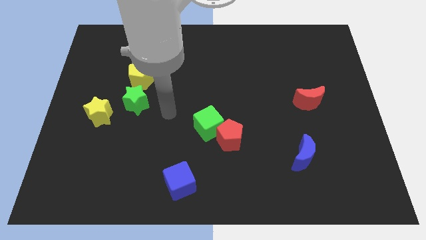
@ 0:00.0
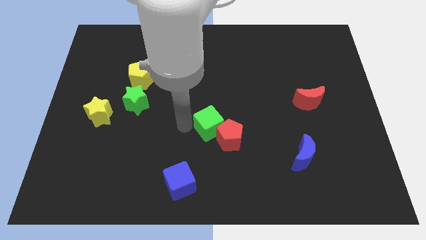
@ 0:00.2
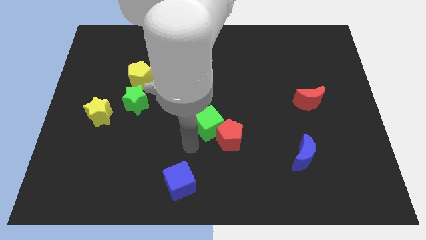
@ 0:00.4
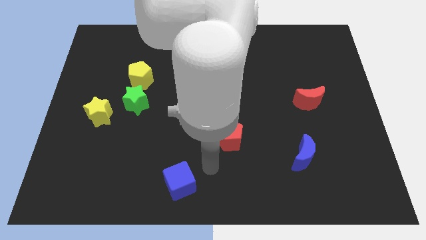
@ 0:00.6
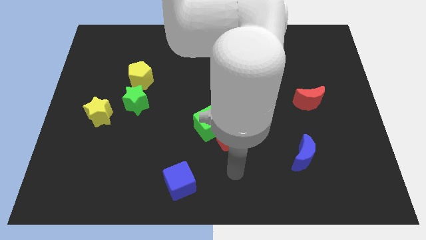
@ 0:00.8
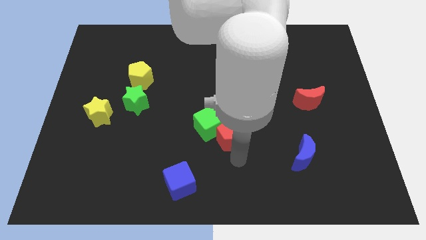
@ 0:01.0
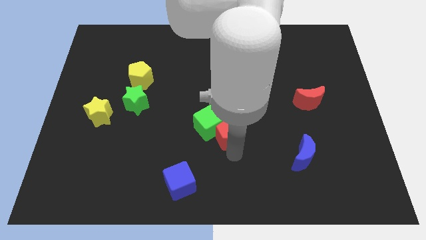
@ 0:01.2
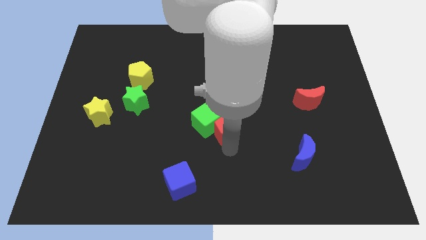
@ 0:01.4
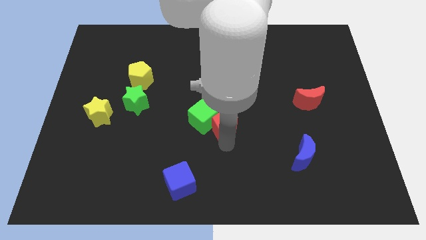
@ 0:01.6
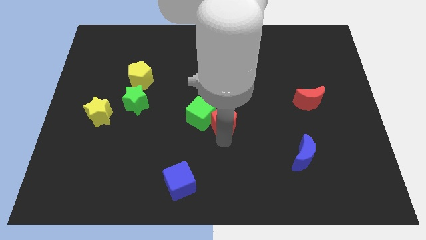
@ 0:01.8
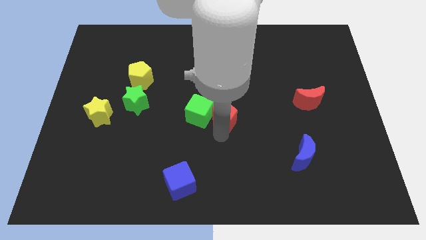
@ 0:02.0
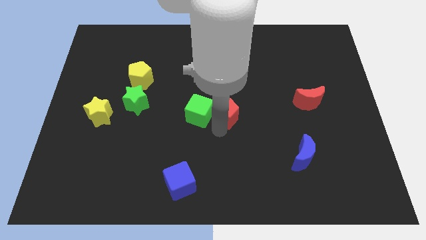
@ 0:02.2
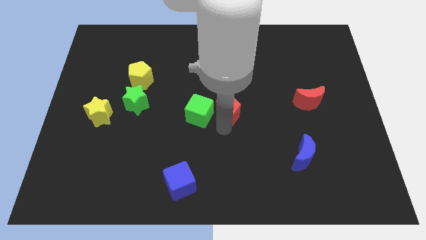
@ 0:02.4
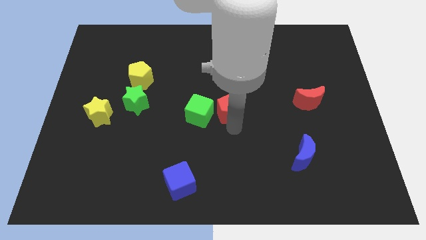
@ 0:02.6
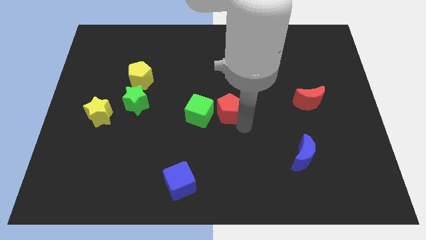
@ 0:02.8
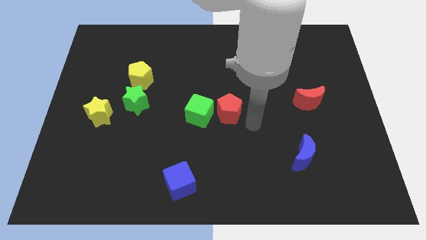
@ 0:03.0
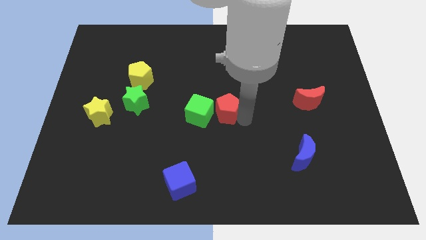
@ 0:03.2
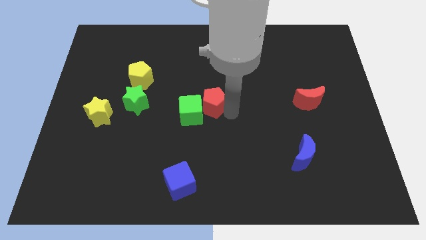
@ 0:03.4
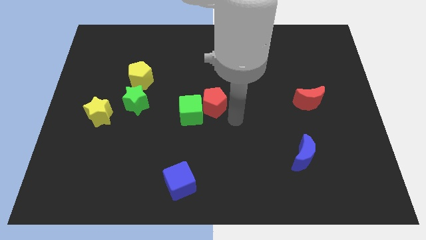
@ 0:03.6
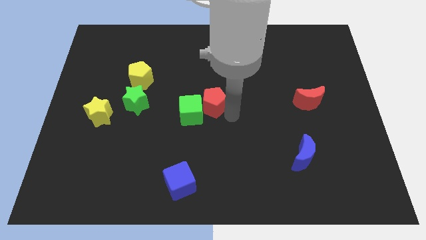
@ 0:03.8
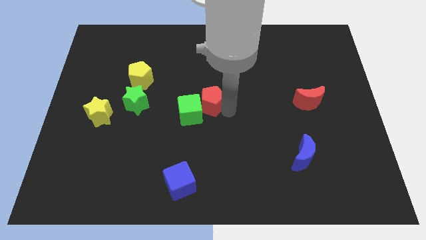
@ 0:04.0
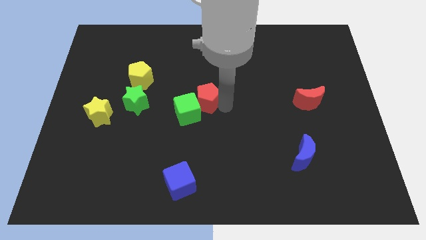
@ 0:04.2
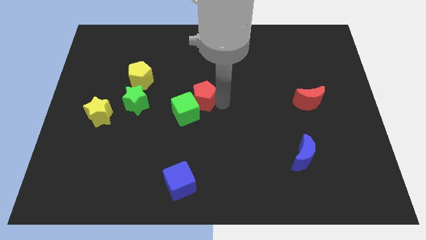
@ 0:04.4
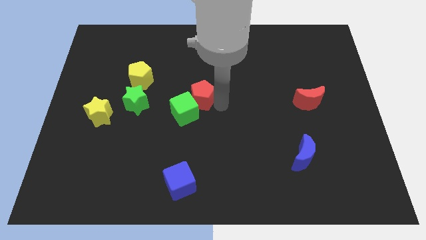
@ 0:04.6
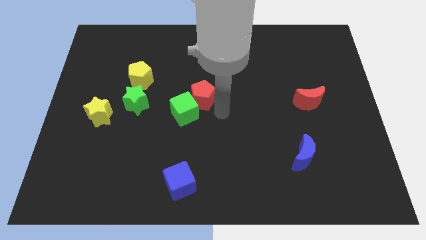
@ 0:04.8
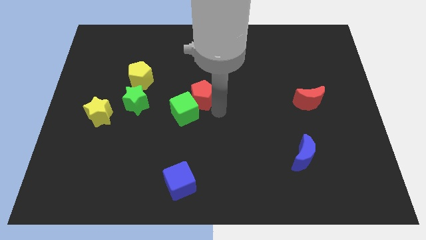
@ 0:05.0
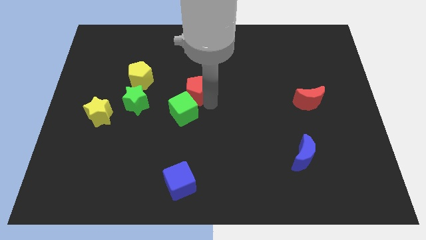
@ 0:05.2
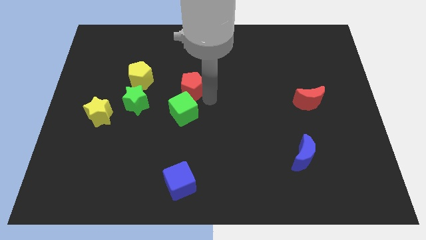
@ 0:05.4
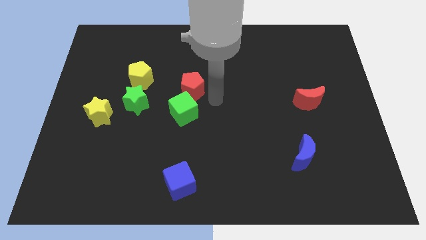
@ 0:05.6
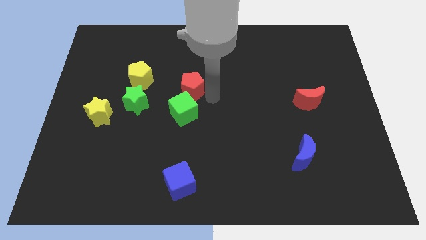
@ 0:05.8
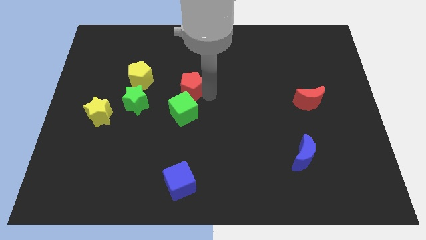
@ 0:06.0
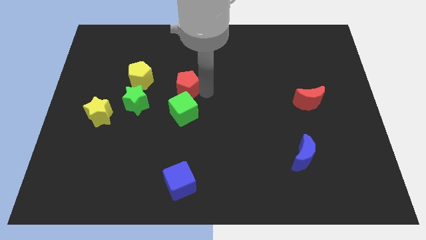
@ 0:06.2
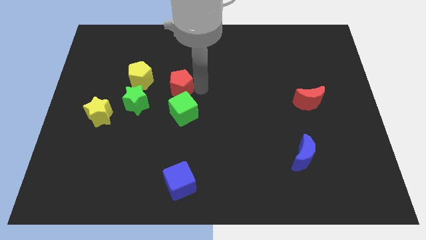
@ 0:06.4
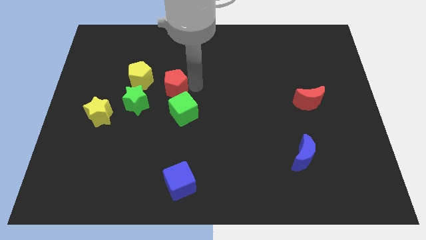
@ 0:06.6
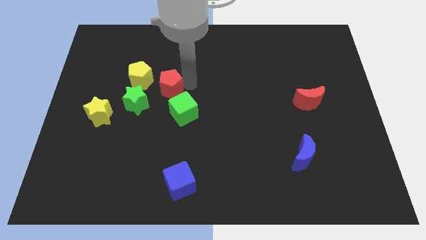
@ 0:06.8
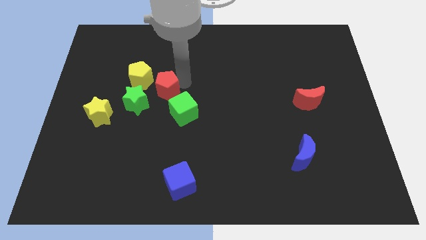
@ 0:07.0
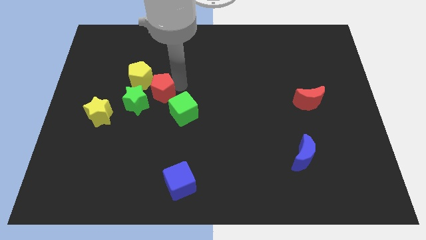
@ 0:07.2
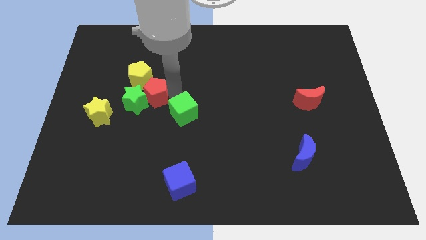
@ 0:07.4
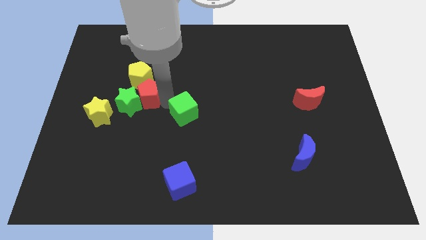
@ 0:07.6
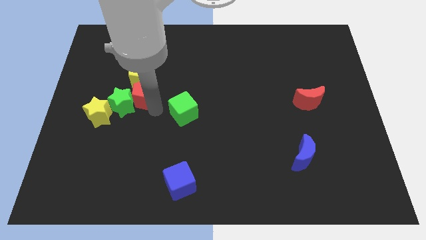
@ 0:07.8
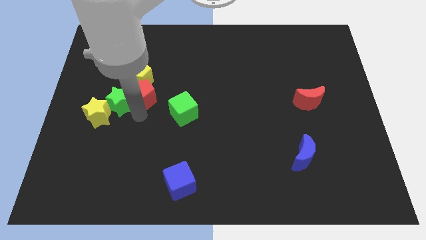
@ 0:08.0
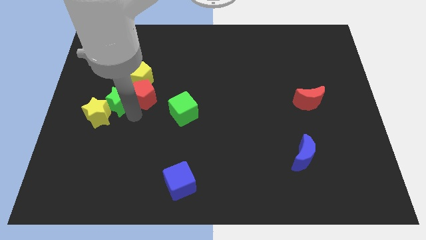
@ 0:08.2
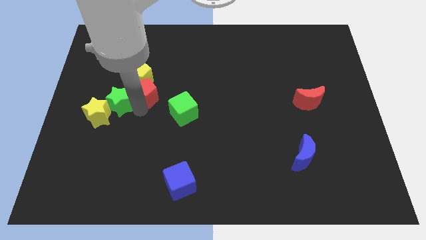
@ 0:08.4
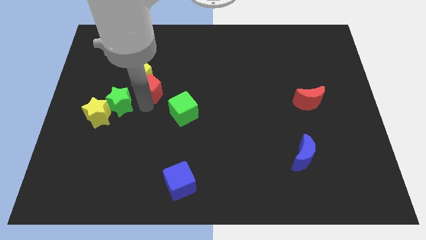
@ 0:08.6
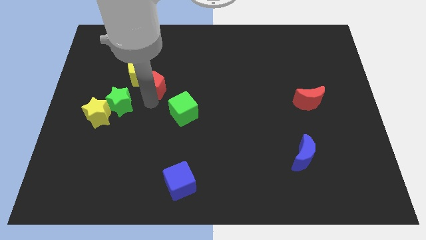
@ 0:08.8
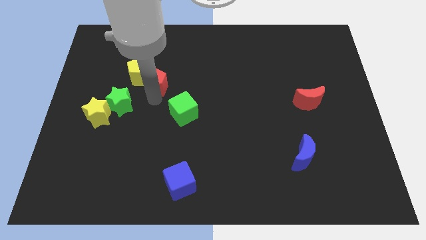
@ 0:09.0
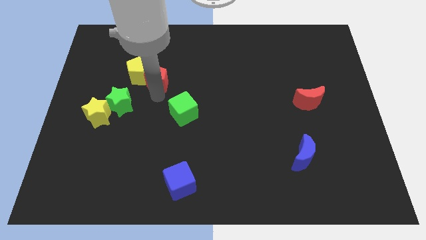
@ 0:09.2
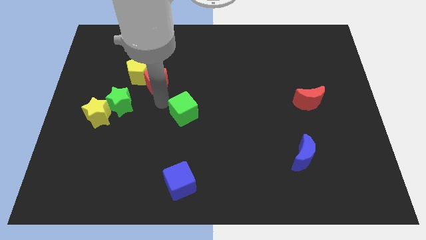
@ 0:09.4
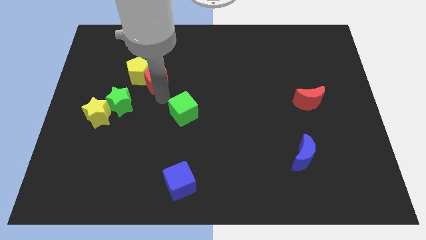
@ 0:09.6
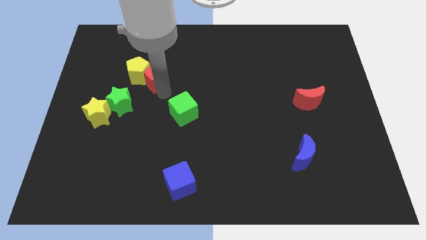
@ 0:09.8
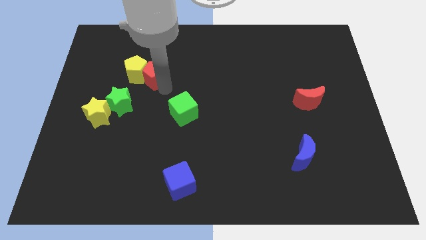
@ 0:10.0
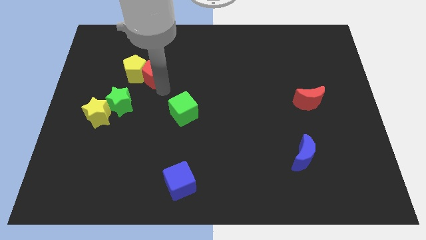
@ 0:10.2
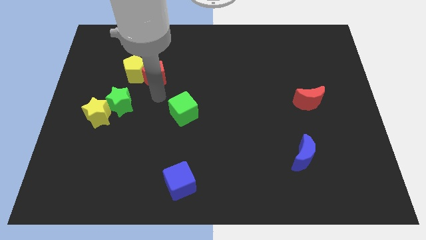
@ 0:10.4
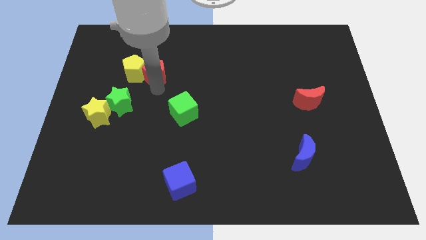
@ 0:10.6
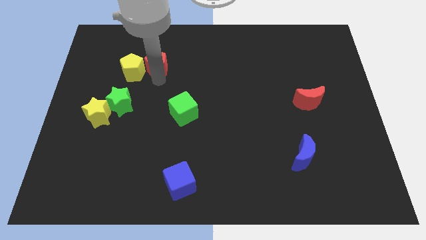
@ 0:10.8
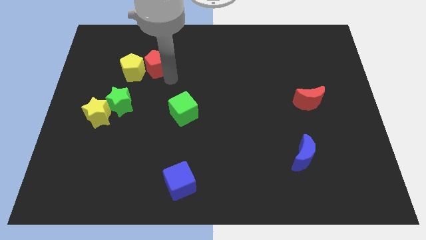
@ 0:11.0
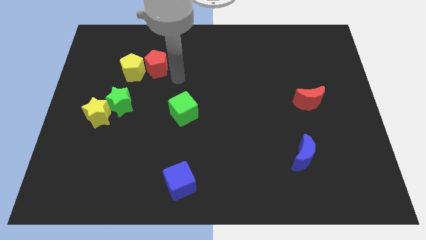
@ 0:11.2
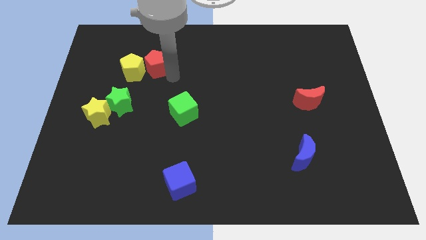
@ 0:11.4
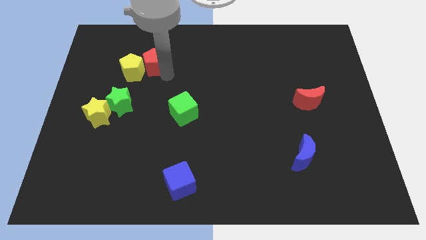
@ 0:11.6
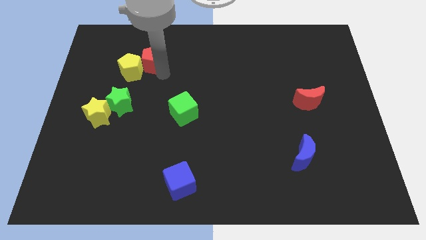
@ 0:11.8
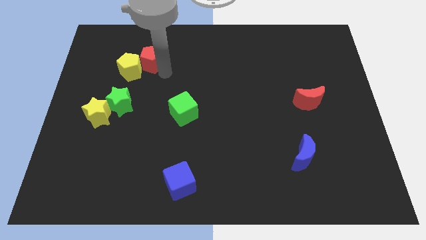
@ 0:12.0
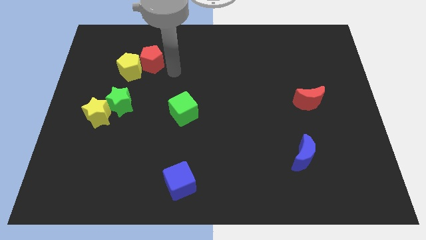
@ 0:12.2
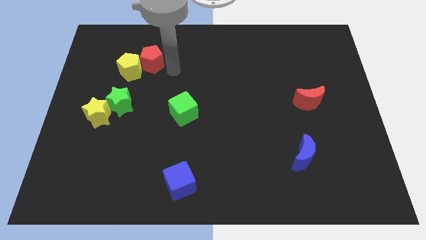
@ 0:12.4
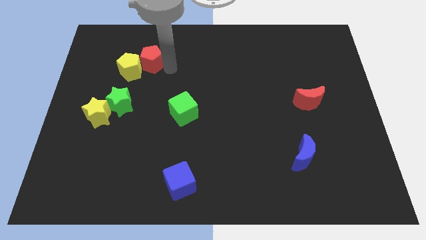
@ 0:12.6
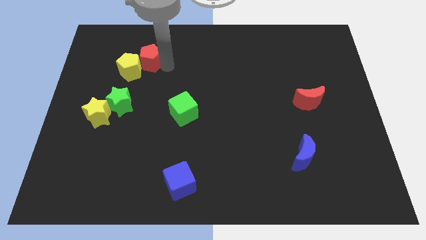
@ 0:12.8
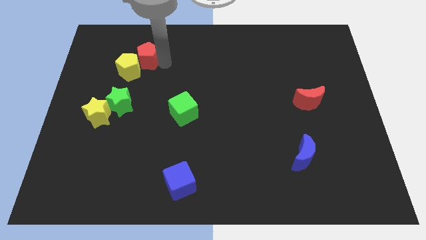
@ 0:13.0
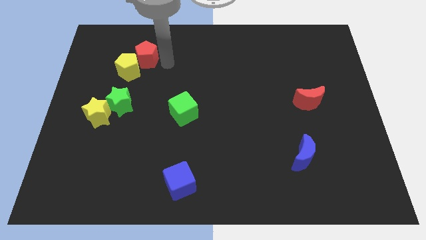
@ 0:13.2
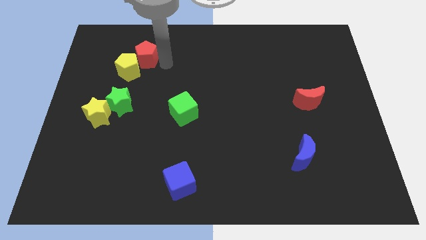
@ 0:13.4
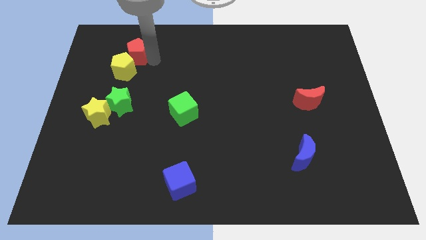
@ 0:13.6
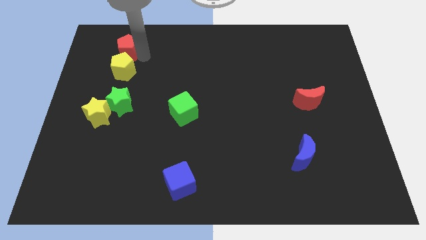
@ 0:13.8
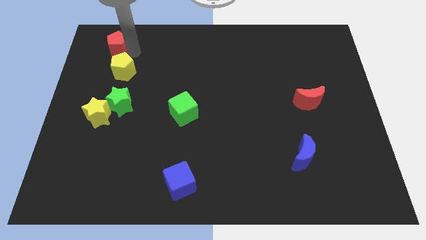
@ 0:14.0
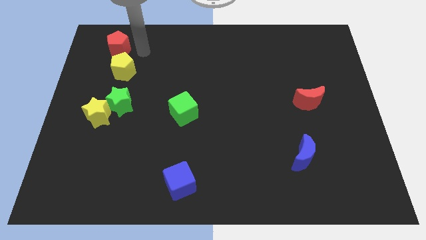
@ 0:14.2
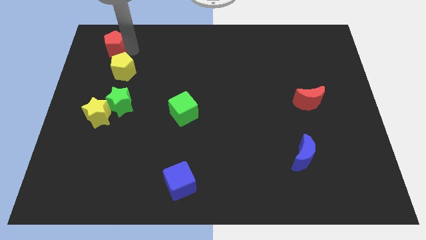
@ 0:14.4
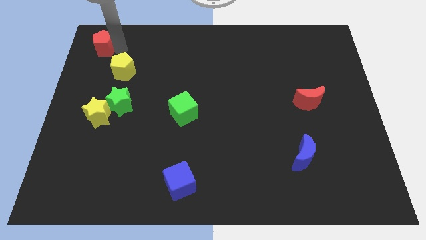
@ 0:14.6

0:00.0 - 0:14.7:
slide the red pentagon to the top left
